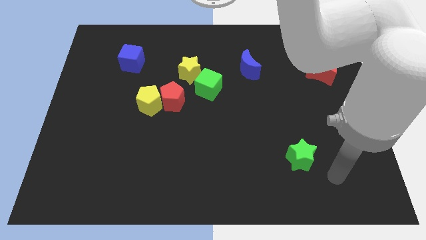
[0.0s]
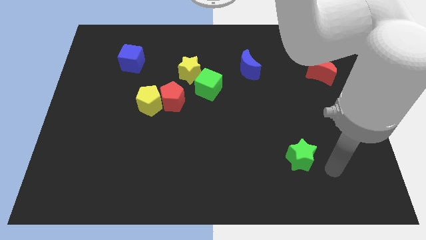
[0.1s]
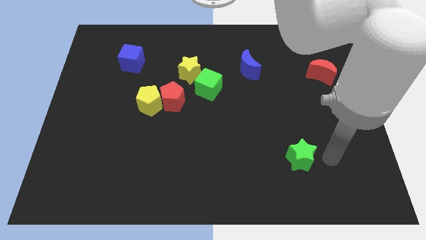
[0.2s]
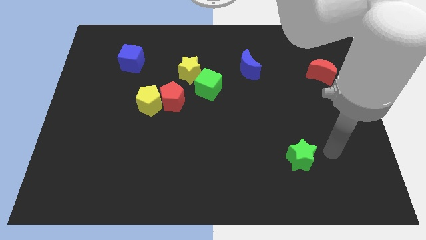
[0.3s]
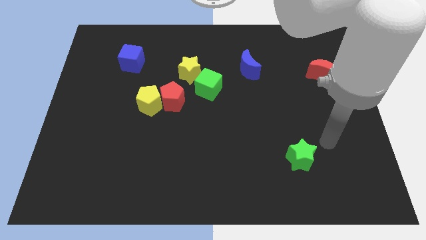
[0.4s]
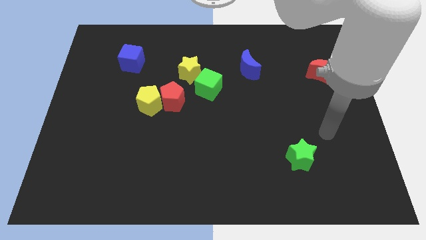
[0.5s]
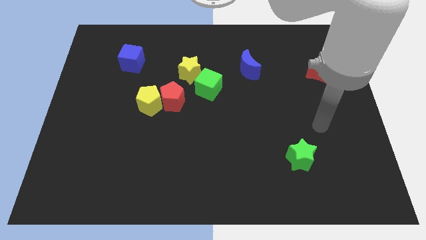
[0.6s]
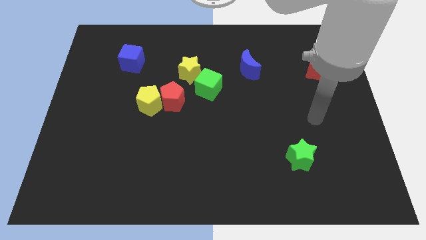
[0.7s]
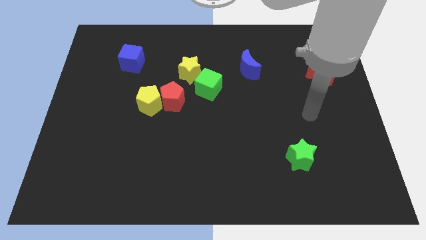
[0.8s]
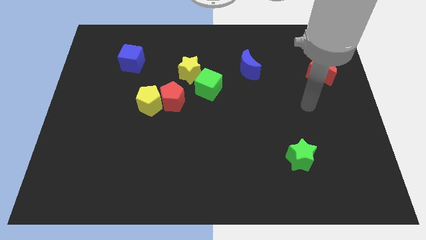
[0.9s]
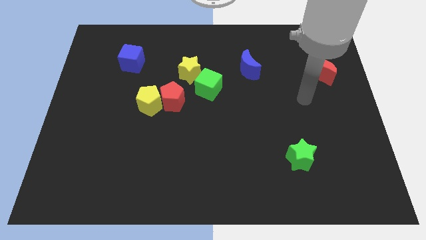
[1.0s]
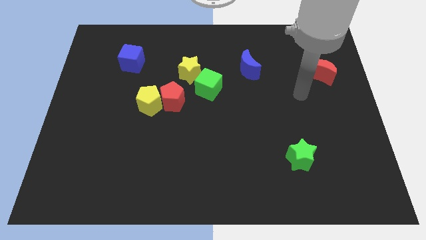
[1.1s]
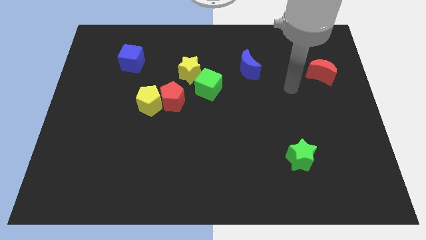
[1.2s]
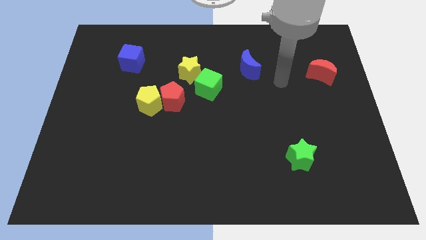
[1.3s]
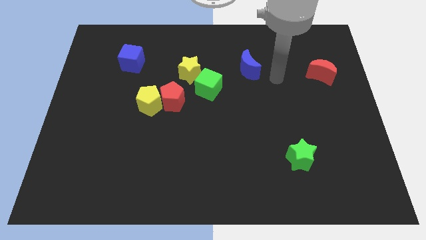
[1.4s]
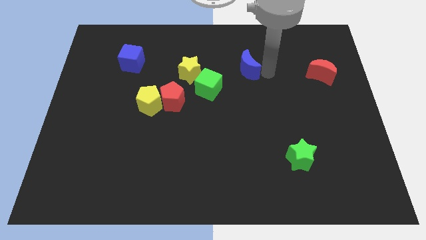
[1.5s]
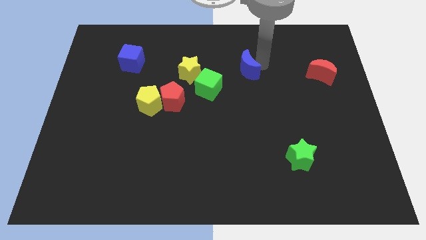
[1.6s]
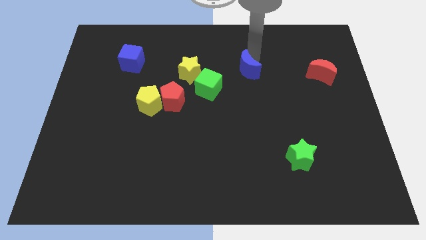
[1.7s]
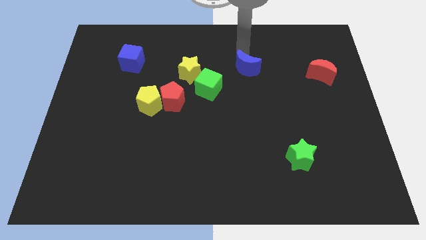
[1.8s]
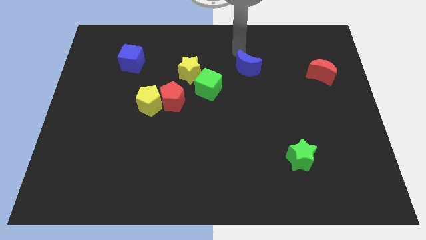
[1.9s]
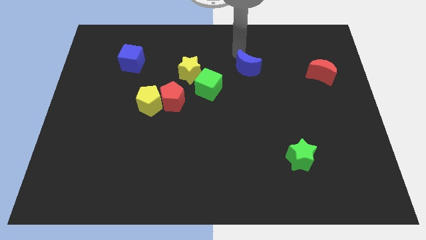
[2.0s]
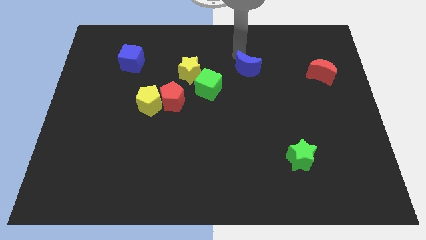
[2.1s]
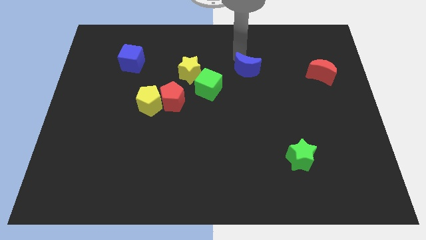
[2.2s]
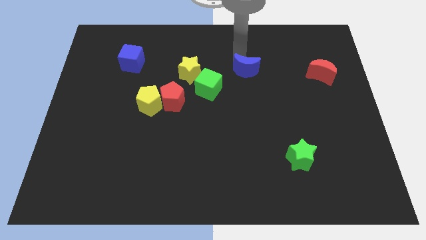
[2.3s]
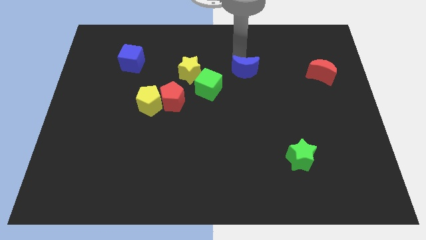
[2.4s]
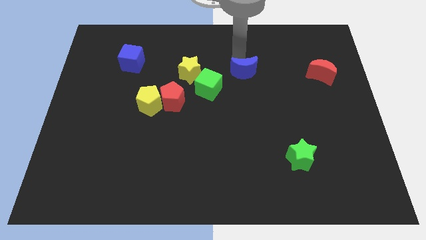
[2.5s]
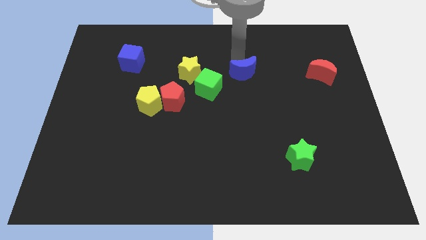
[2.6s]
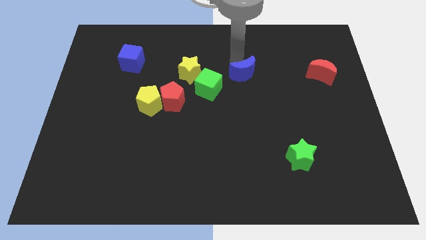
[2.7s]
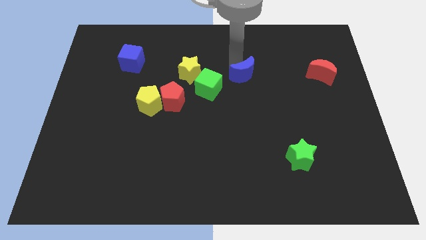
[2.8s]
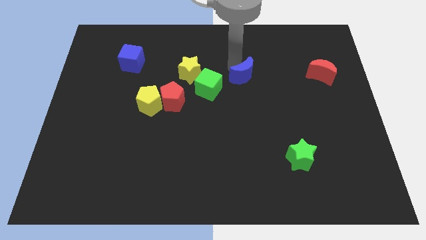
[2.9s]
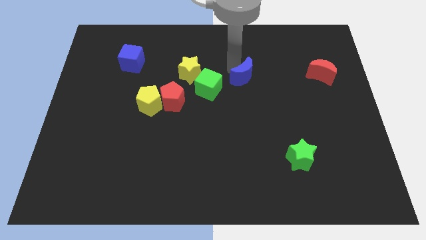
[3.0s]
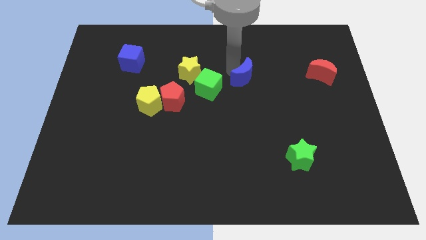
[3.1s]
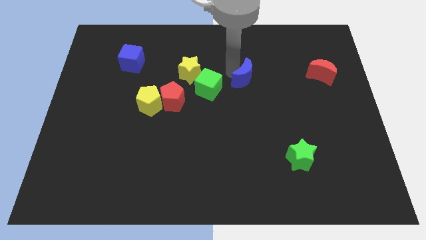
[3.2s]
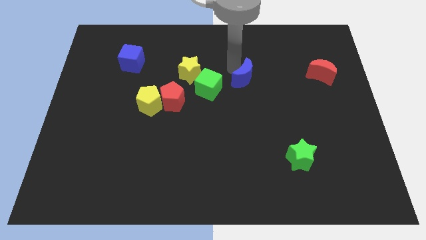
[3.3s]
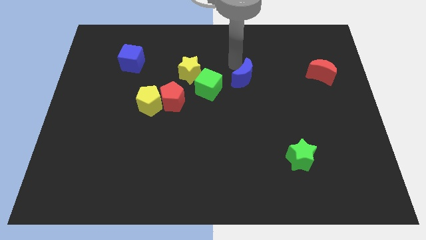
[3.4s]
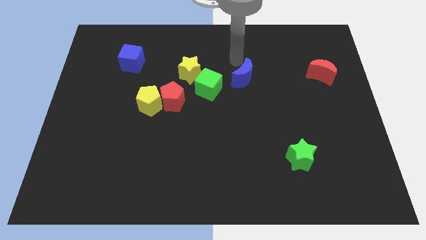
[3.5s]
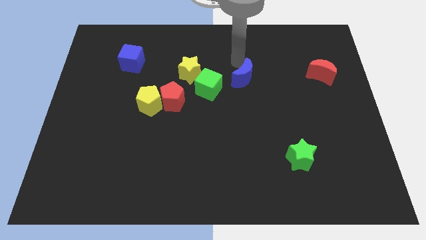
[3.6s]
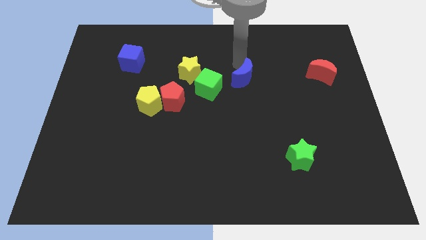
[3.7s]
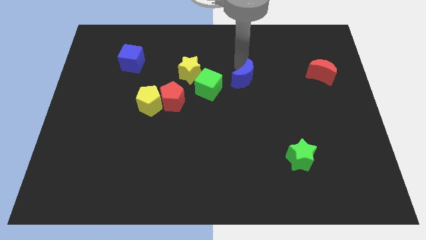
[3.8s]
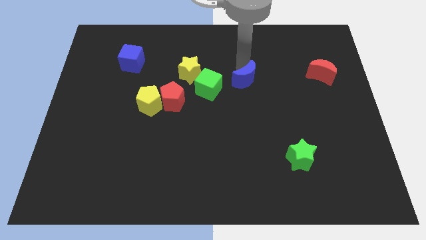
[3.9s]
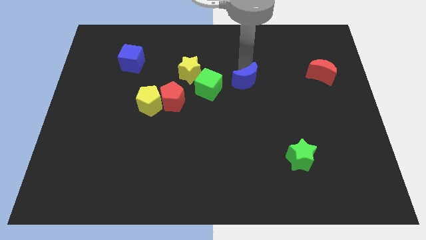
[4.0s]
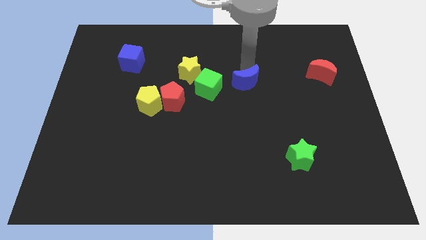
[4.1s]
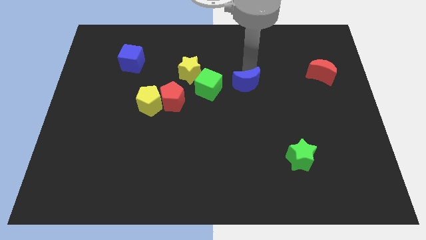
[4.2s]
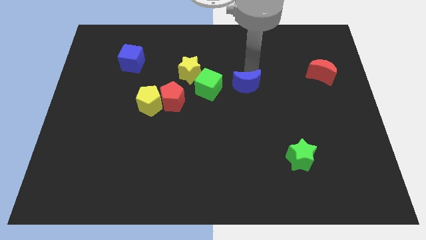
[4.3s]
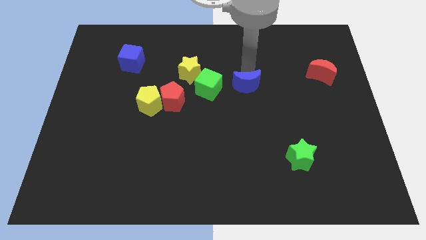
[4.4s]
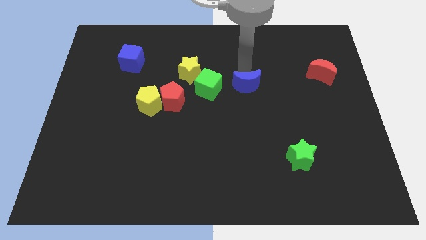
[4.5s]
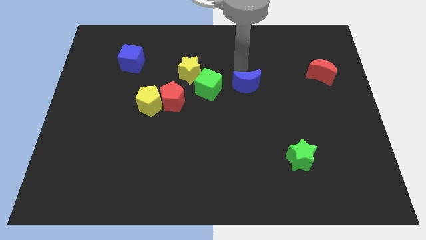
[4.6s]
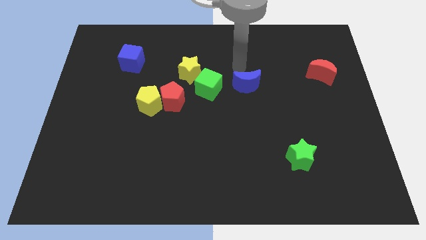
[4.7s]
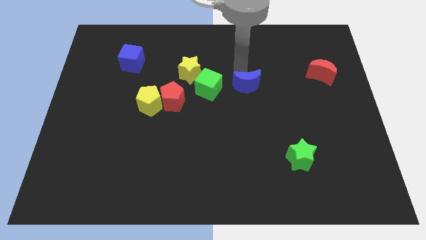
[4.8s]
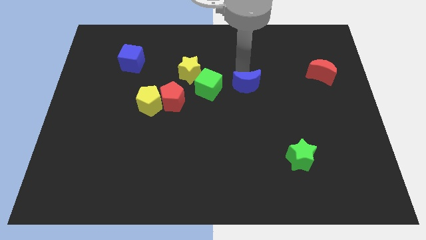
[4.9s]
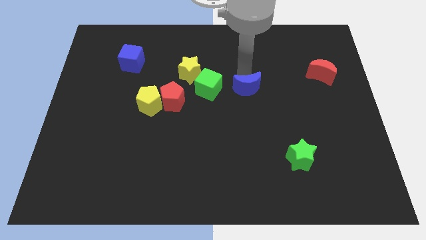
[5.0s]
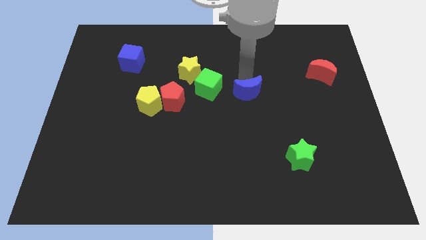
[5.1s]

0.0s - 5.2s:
push the blue moon a little bit down

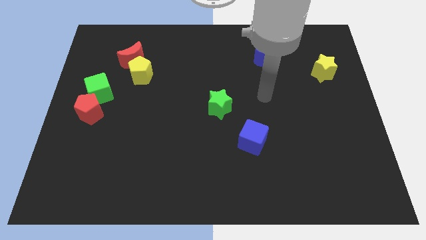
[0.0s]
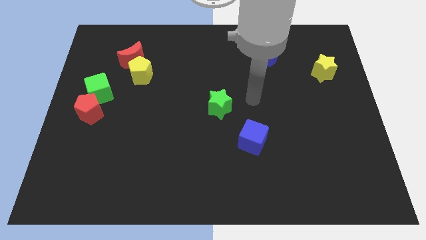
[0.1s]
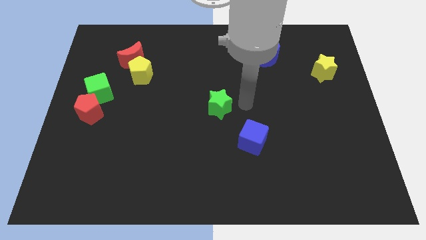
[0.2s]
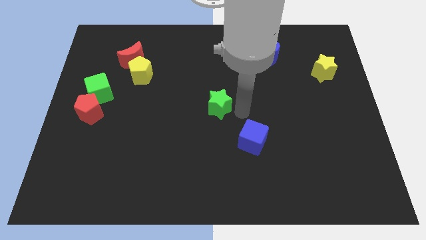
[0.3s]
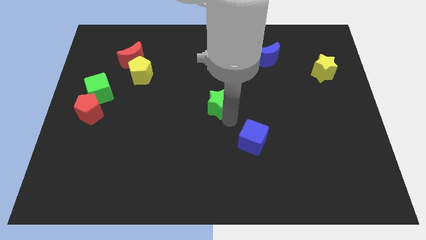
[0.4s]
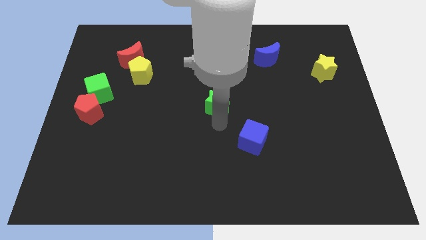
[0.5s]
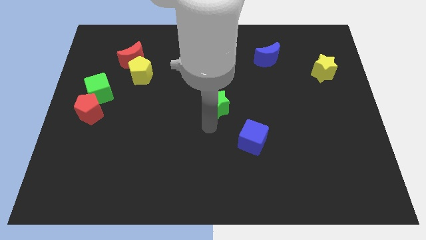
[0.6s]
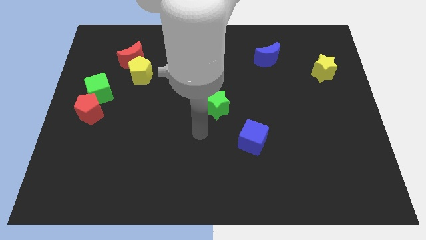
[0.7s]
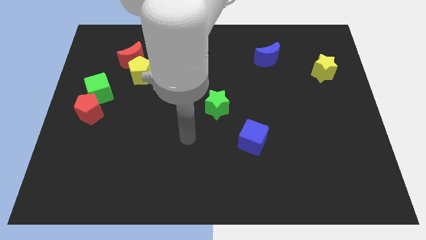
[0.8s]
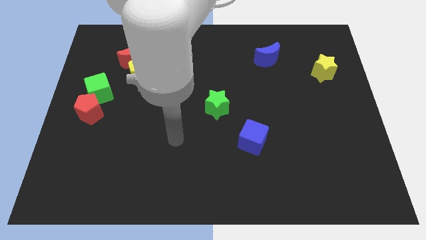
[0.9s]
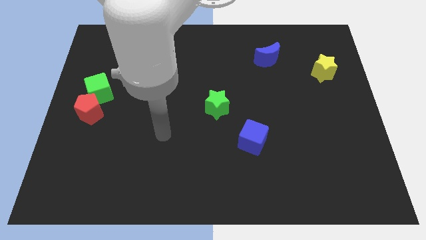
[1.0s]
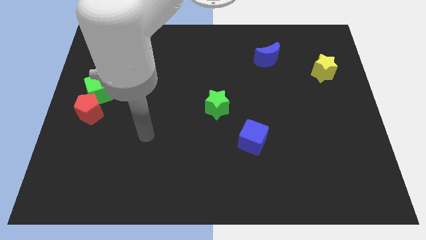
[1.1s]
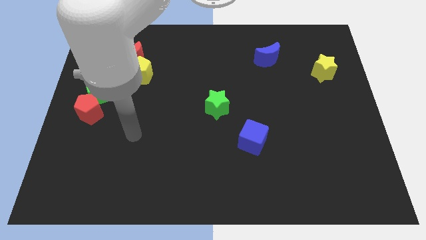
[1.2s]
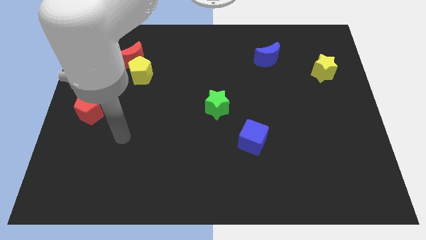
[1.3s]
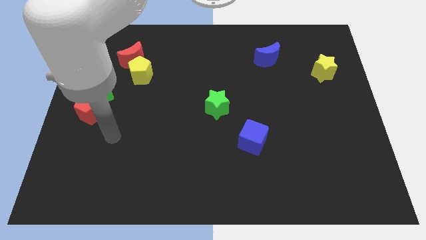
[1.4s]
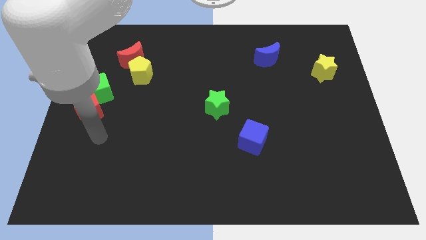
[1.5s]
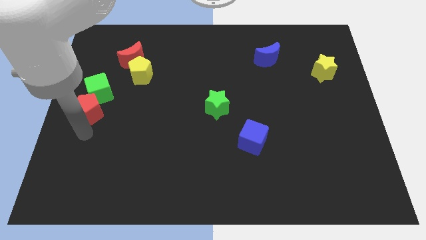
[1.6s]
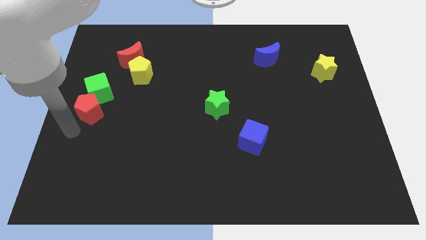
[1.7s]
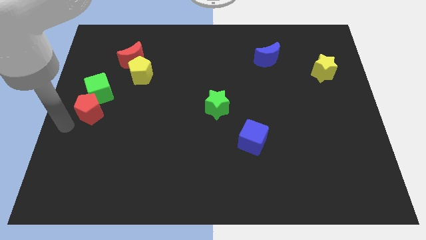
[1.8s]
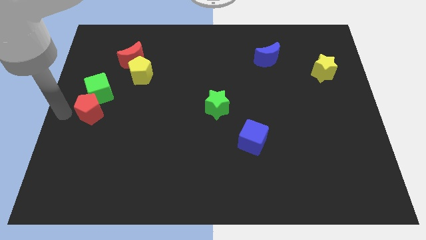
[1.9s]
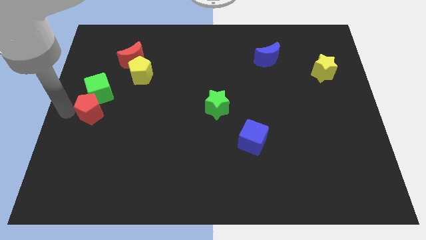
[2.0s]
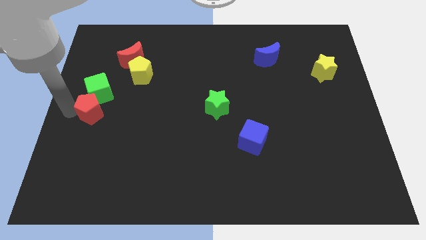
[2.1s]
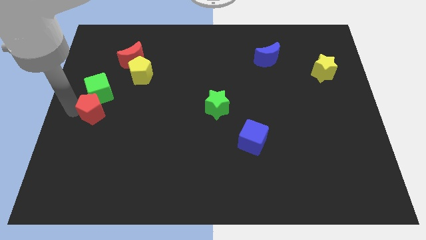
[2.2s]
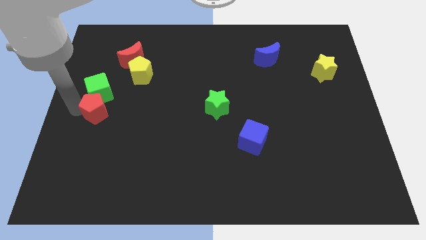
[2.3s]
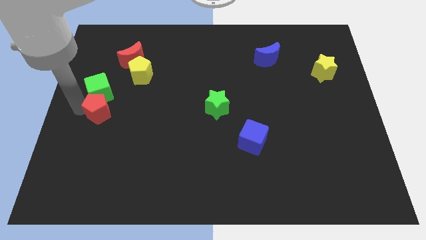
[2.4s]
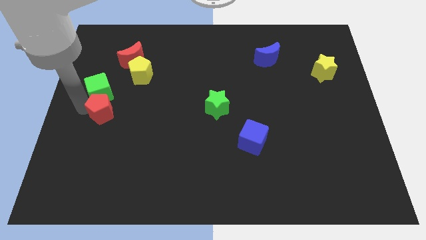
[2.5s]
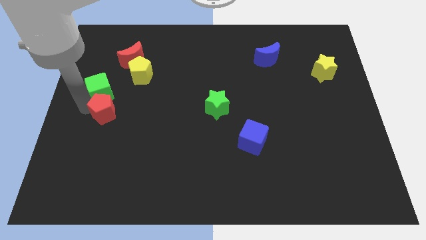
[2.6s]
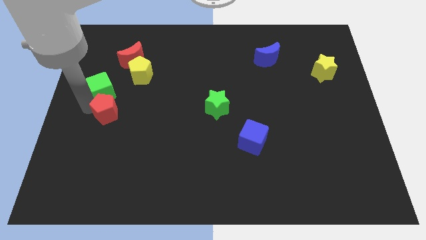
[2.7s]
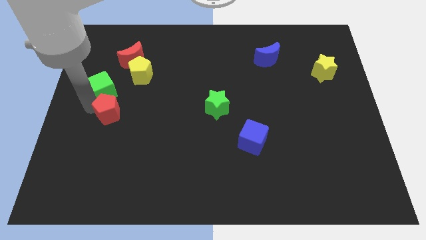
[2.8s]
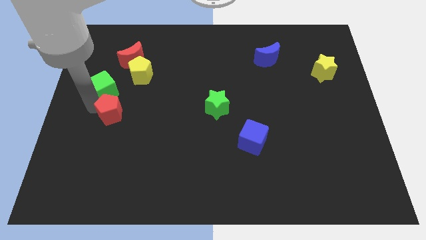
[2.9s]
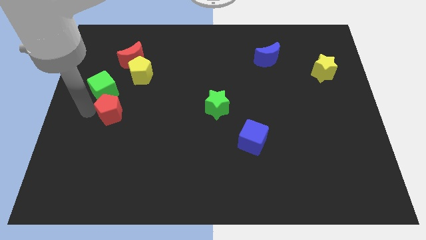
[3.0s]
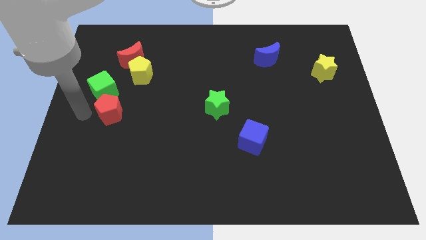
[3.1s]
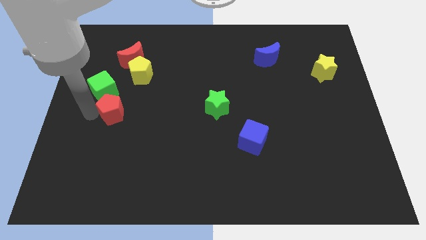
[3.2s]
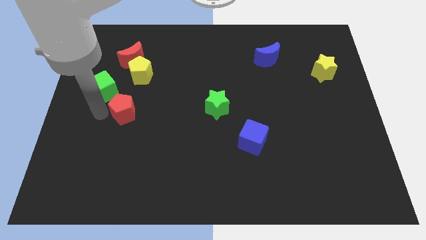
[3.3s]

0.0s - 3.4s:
slightly push the red pentagon to the right
